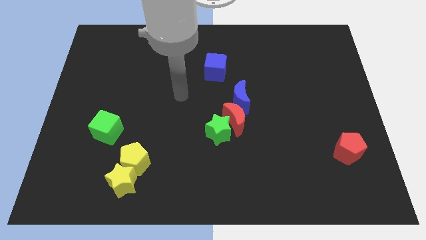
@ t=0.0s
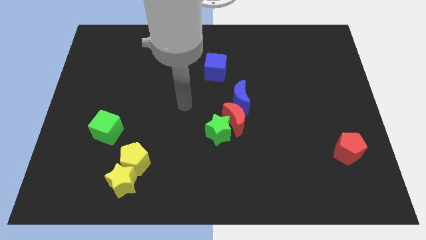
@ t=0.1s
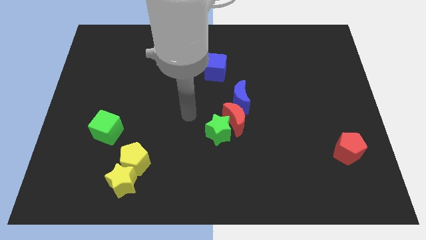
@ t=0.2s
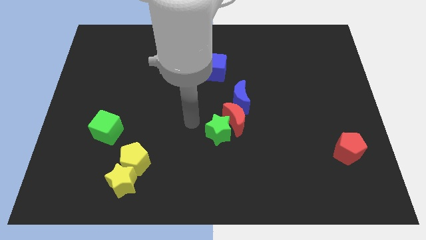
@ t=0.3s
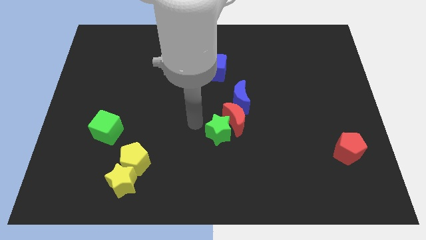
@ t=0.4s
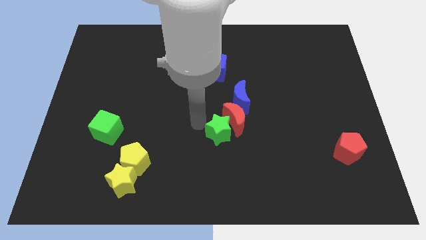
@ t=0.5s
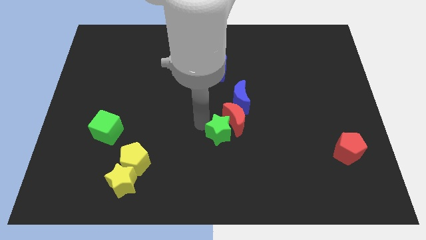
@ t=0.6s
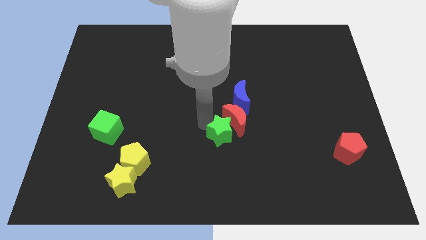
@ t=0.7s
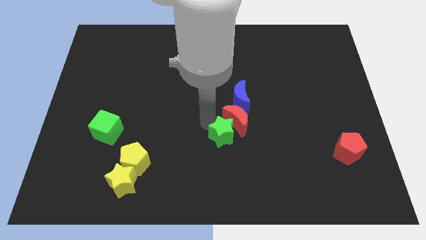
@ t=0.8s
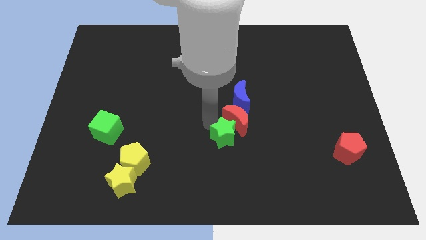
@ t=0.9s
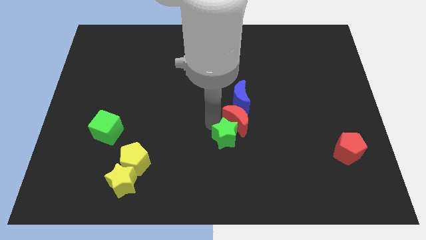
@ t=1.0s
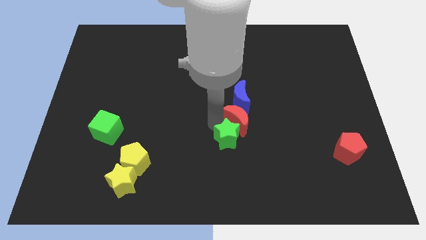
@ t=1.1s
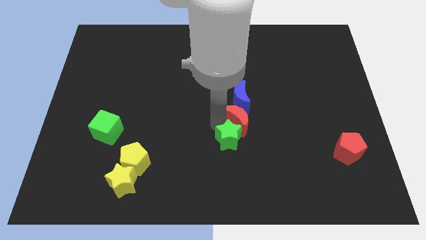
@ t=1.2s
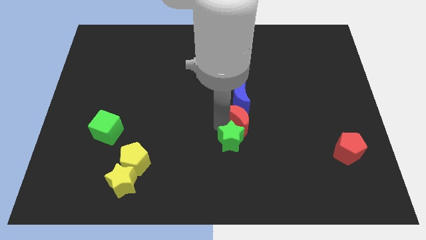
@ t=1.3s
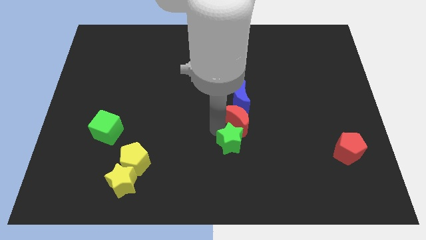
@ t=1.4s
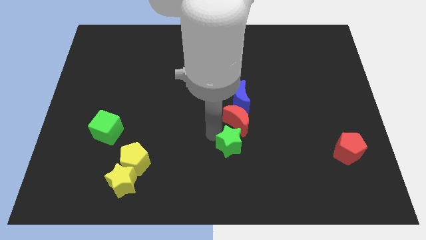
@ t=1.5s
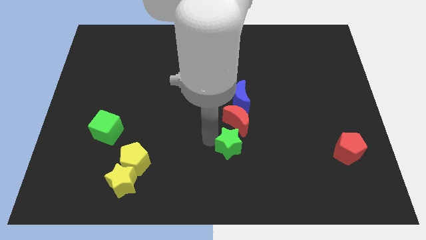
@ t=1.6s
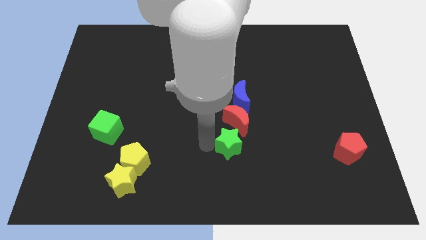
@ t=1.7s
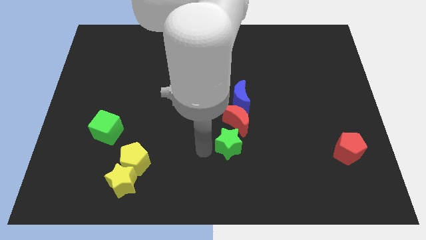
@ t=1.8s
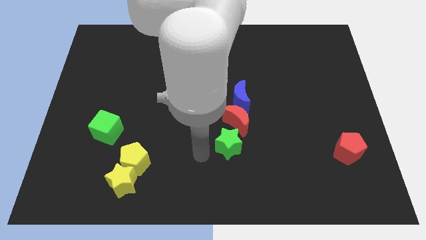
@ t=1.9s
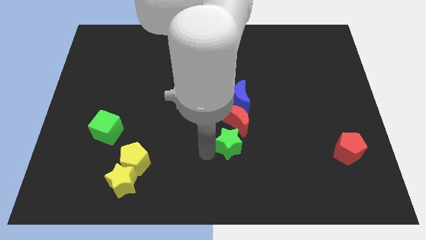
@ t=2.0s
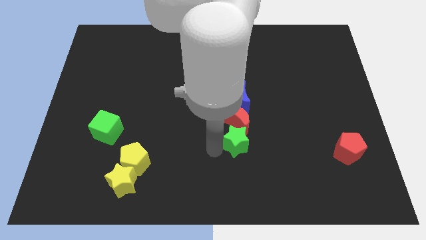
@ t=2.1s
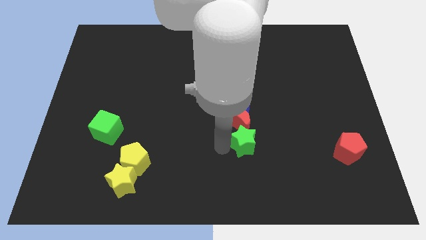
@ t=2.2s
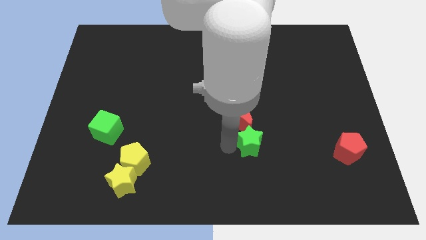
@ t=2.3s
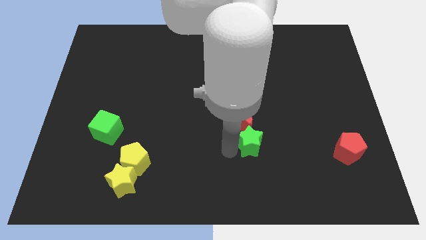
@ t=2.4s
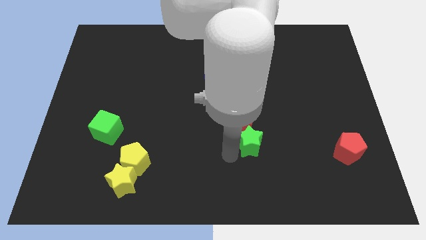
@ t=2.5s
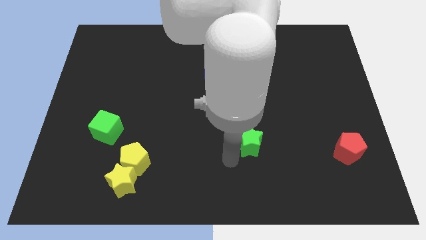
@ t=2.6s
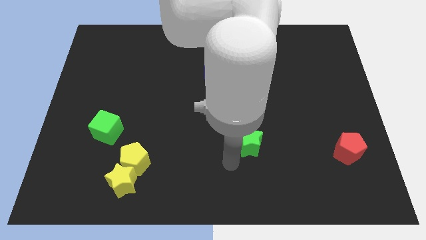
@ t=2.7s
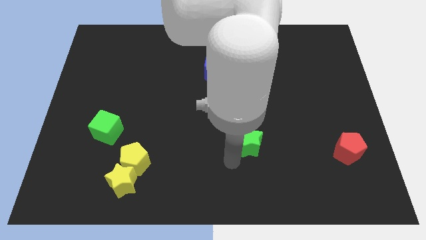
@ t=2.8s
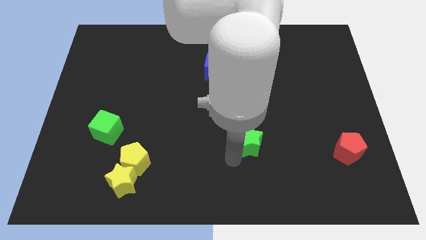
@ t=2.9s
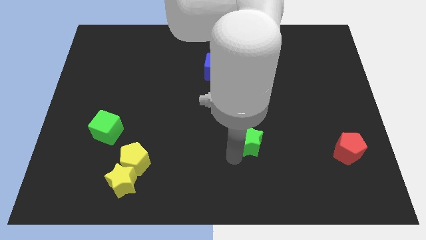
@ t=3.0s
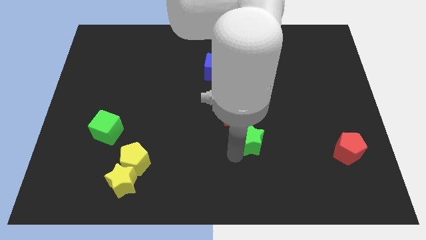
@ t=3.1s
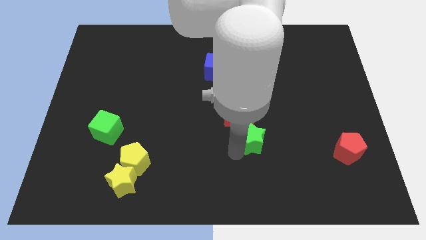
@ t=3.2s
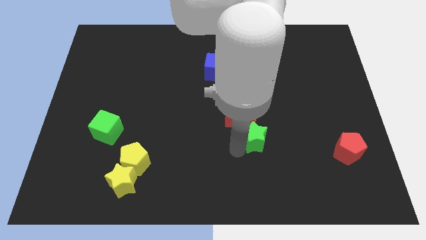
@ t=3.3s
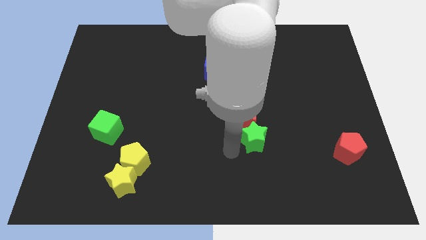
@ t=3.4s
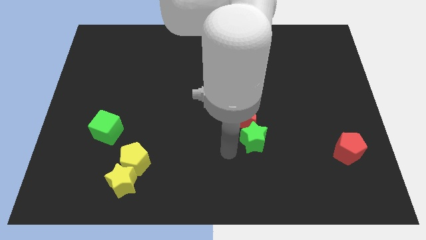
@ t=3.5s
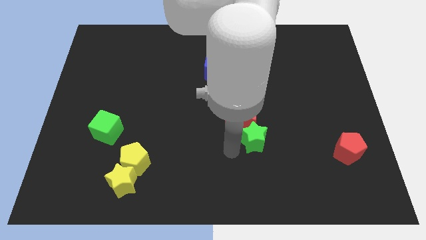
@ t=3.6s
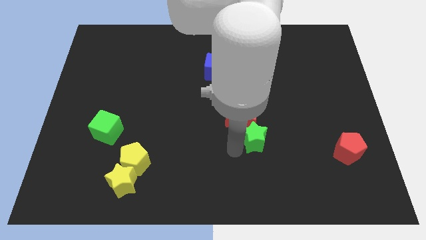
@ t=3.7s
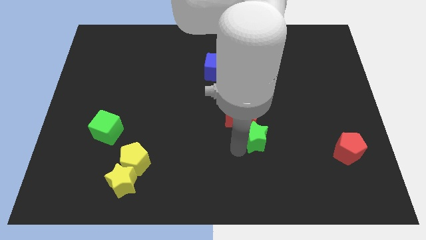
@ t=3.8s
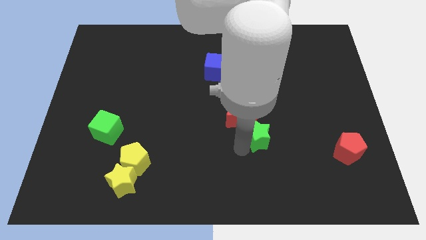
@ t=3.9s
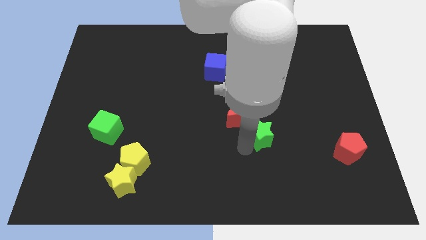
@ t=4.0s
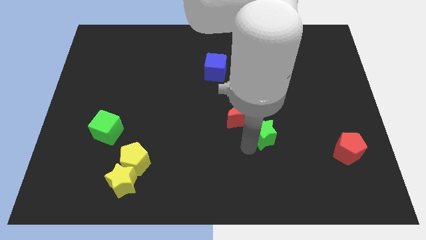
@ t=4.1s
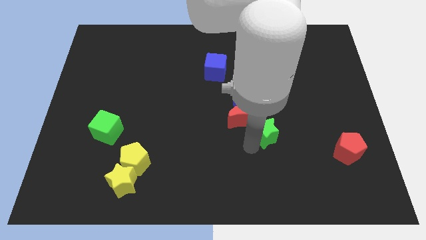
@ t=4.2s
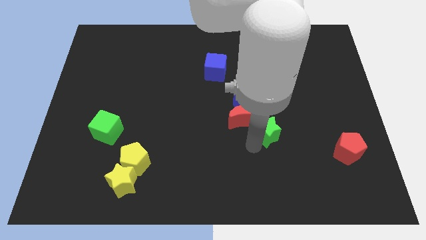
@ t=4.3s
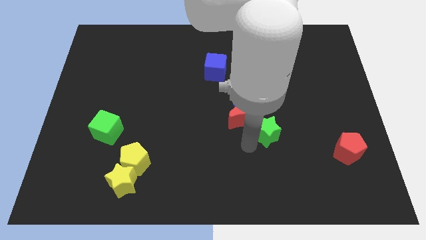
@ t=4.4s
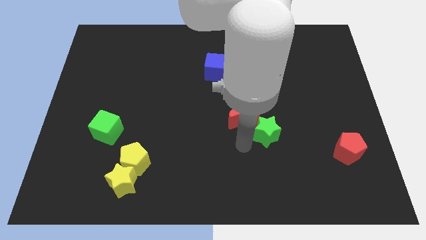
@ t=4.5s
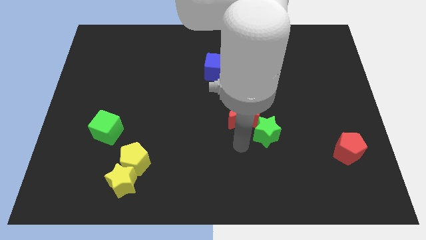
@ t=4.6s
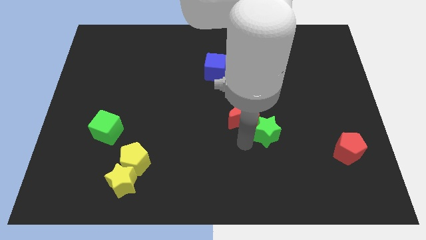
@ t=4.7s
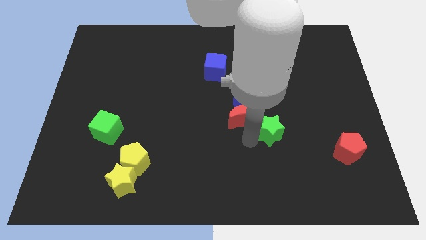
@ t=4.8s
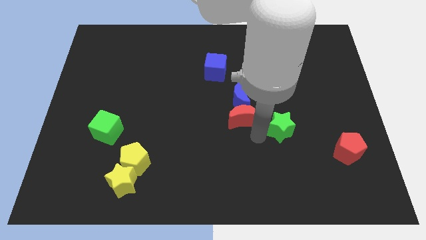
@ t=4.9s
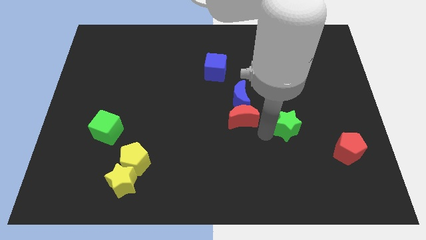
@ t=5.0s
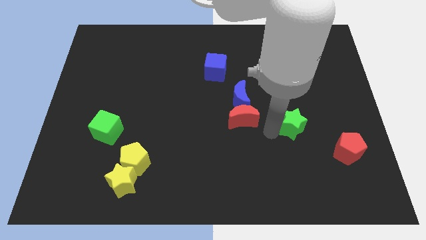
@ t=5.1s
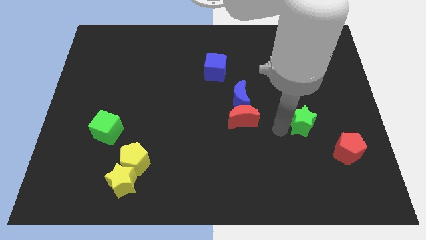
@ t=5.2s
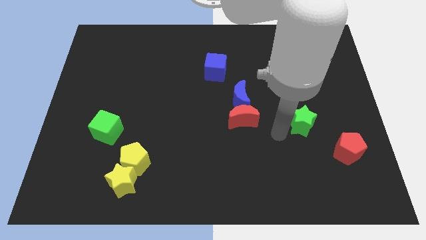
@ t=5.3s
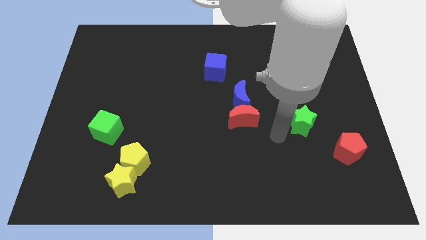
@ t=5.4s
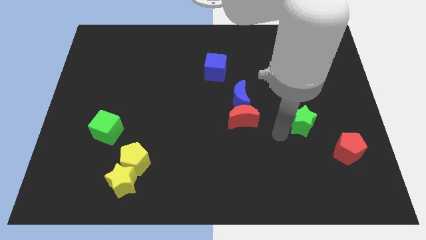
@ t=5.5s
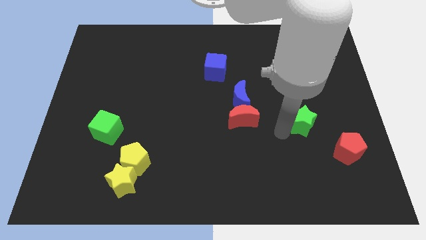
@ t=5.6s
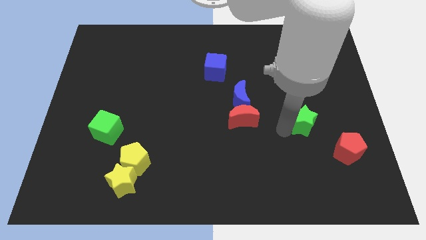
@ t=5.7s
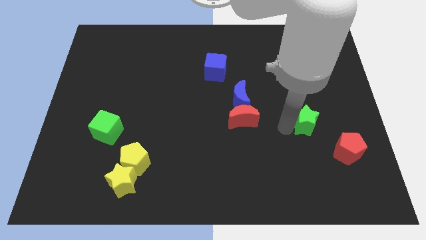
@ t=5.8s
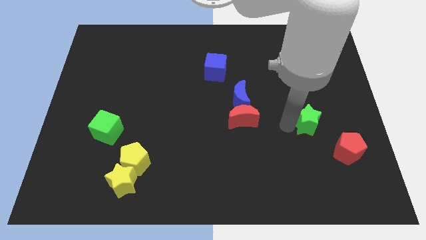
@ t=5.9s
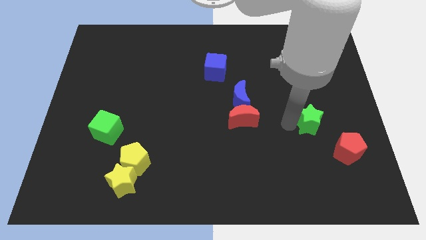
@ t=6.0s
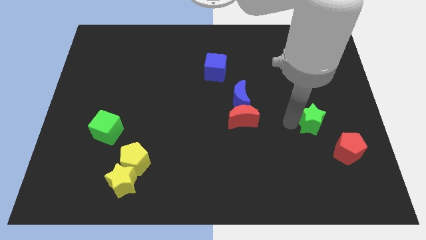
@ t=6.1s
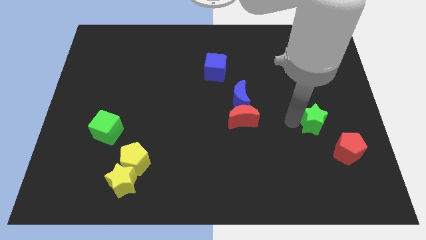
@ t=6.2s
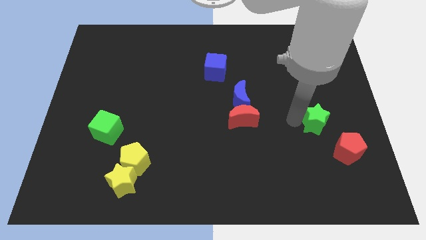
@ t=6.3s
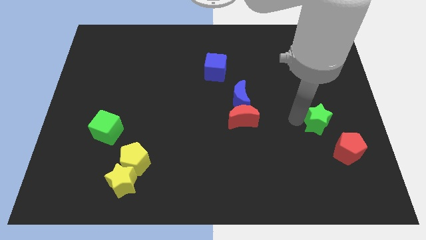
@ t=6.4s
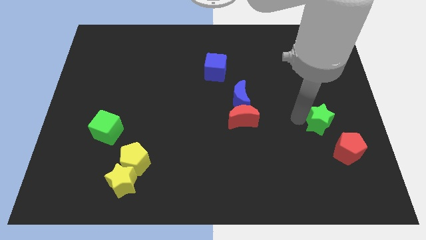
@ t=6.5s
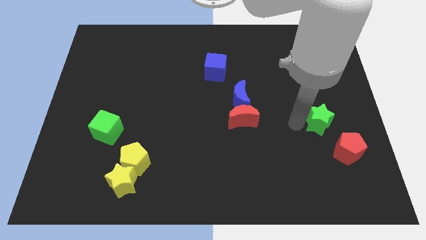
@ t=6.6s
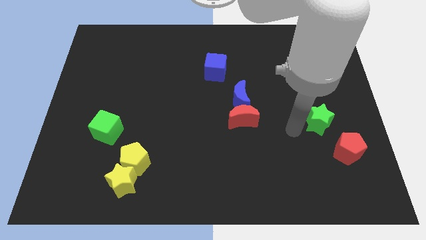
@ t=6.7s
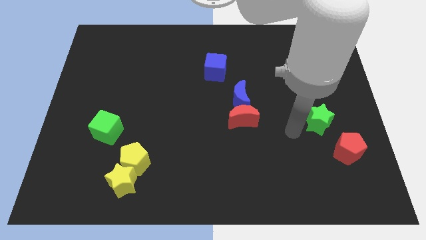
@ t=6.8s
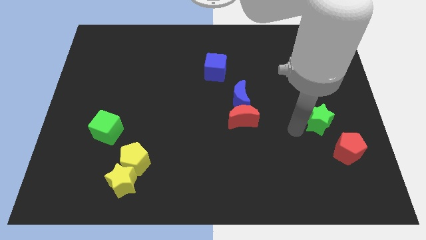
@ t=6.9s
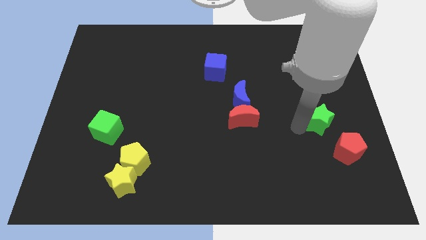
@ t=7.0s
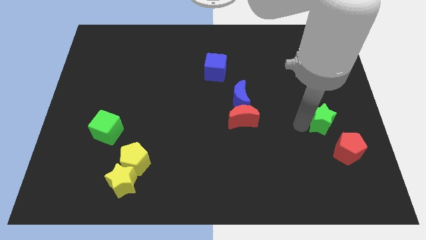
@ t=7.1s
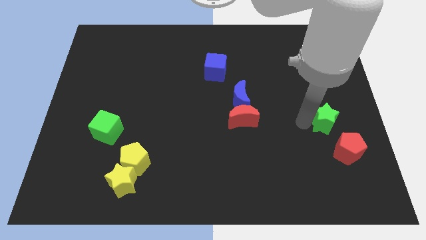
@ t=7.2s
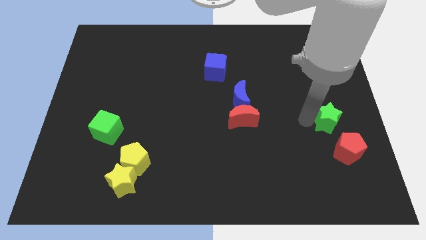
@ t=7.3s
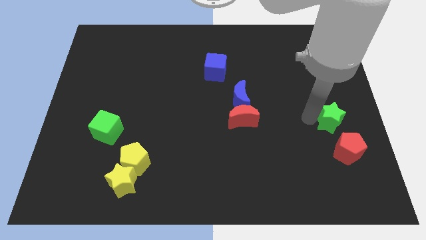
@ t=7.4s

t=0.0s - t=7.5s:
push the green star to the center right

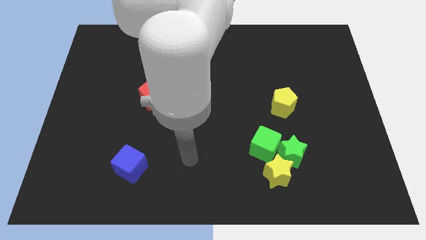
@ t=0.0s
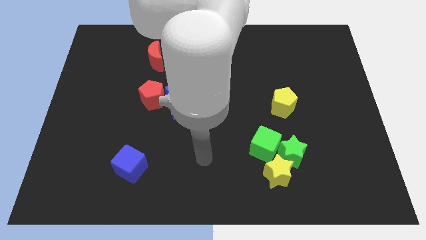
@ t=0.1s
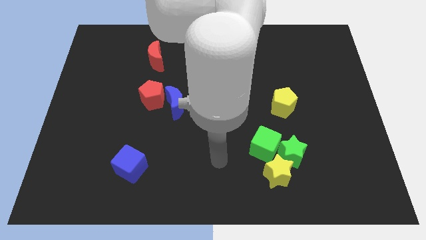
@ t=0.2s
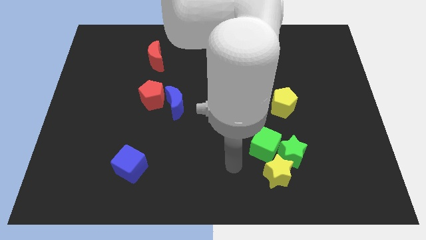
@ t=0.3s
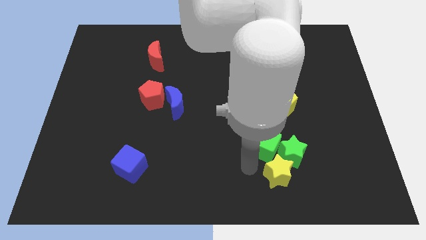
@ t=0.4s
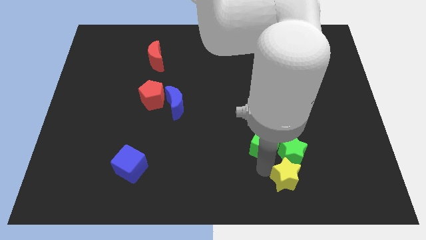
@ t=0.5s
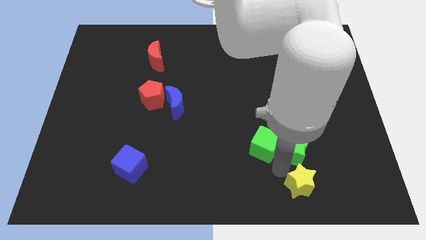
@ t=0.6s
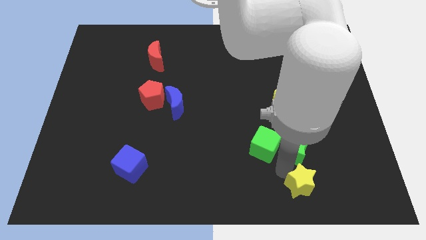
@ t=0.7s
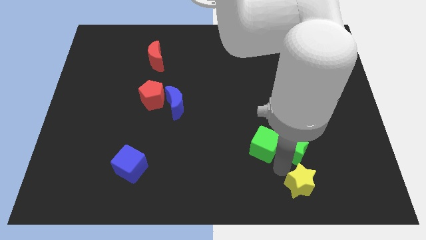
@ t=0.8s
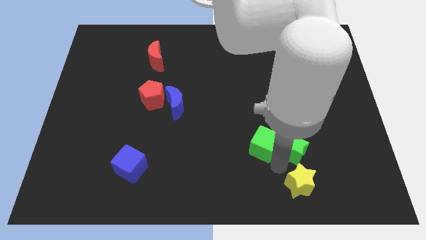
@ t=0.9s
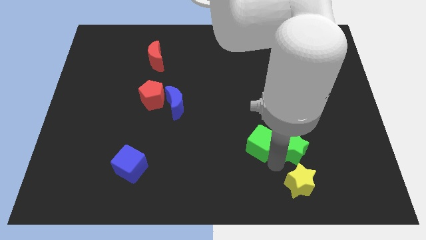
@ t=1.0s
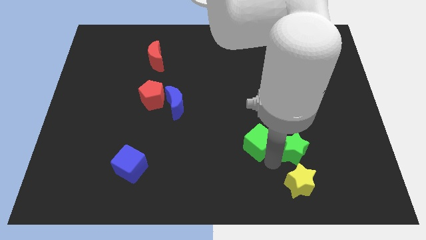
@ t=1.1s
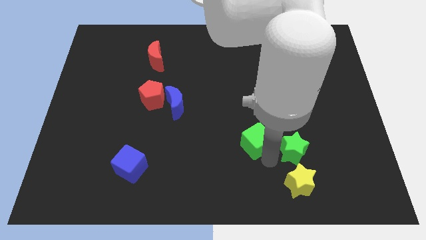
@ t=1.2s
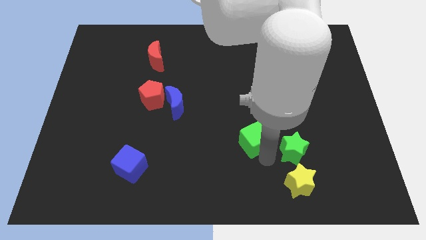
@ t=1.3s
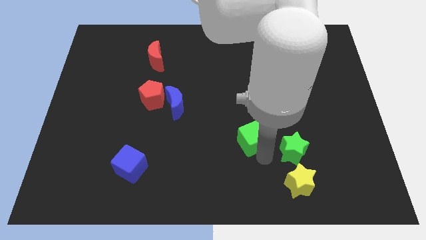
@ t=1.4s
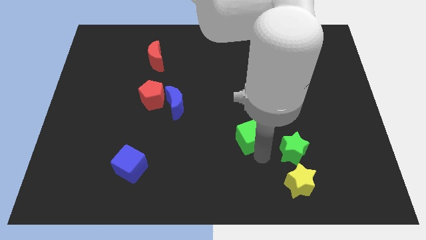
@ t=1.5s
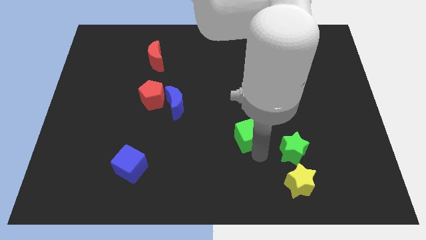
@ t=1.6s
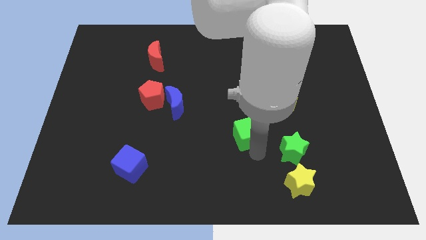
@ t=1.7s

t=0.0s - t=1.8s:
slide the green cube to the middle
